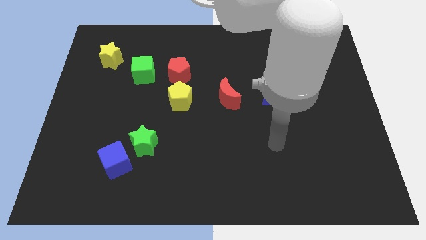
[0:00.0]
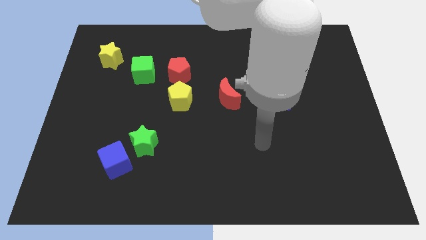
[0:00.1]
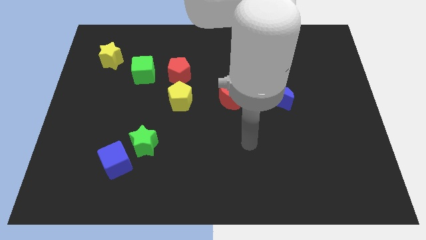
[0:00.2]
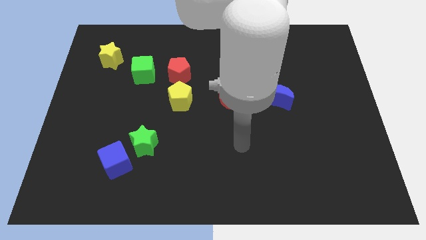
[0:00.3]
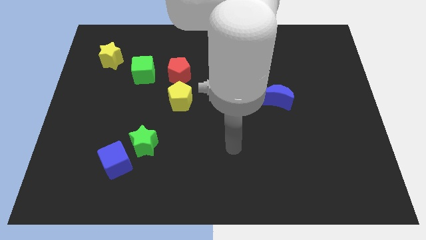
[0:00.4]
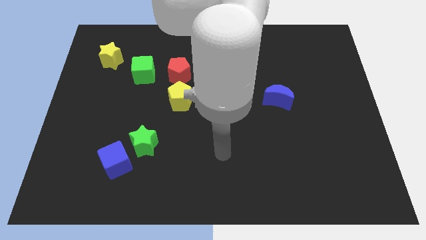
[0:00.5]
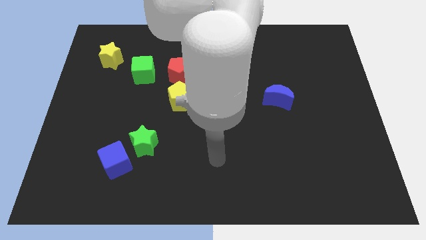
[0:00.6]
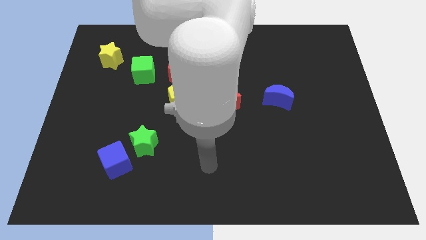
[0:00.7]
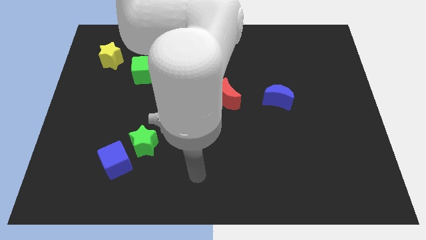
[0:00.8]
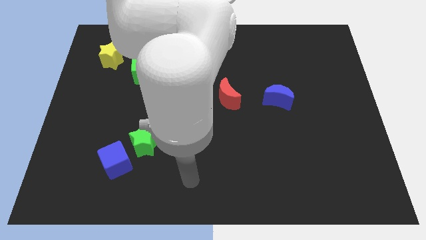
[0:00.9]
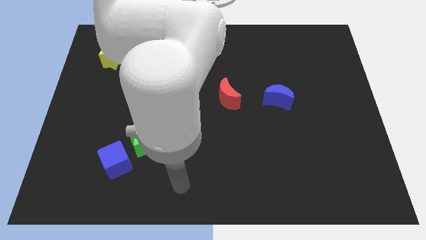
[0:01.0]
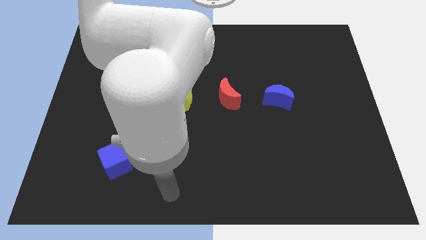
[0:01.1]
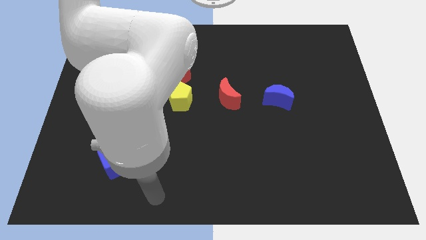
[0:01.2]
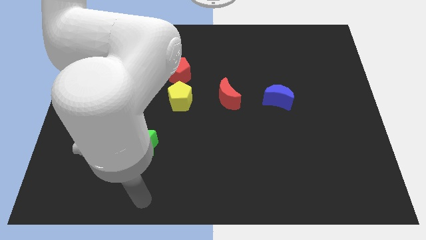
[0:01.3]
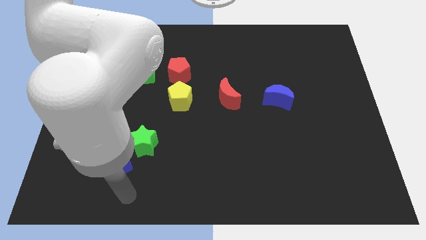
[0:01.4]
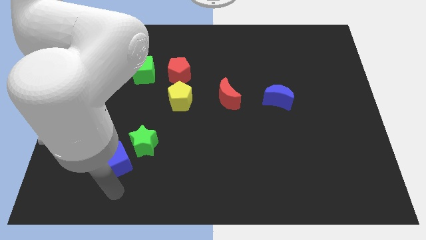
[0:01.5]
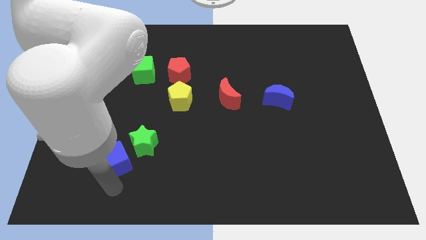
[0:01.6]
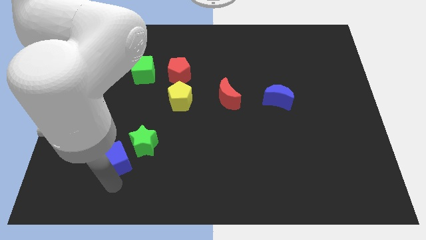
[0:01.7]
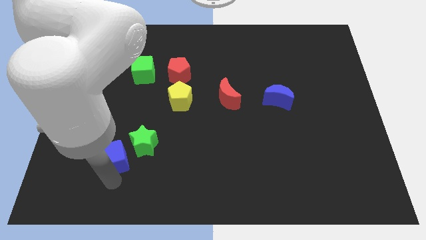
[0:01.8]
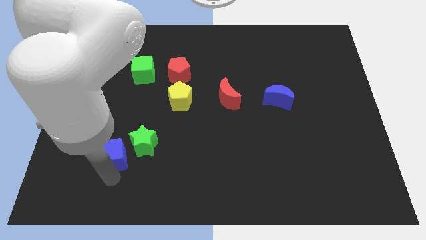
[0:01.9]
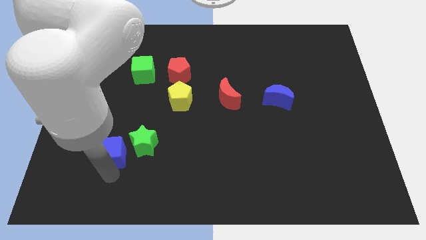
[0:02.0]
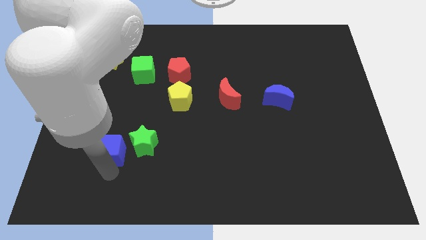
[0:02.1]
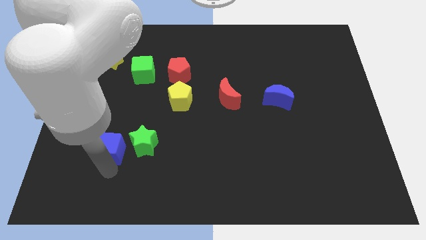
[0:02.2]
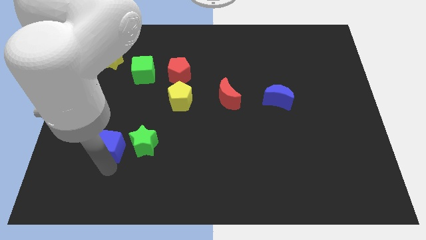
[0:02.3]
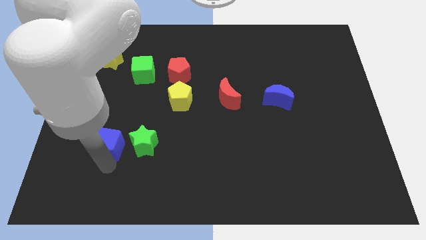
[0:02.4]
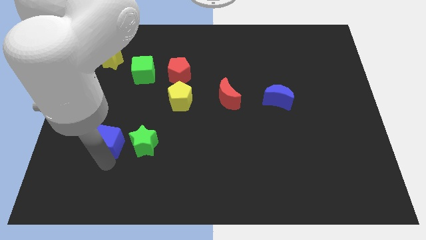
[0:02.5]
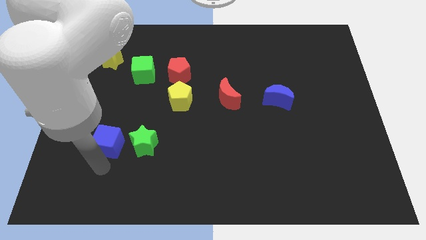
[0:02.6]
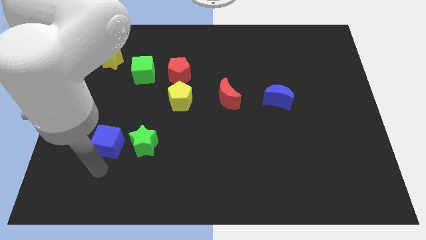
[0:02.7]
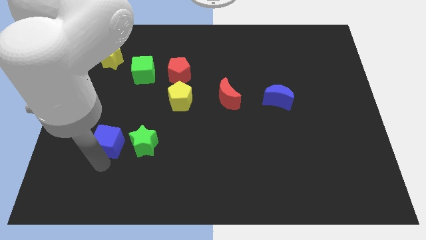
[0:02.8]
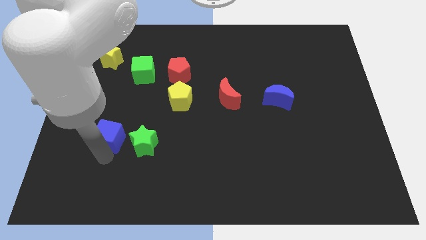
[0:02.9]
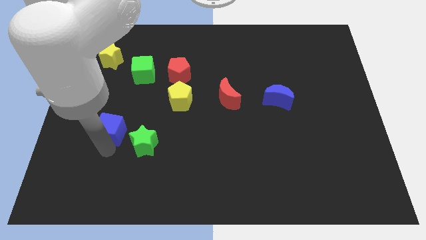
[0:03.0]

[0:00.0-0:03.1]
slightly slide the blue cube upwards

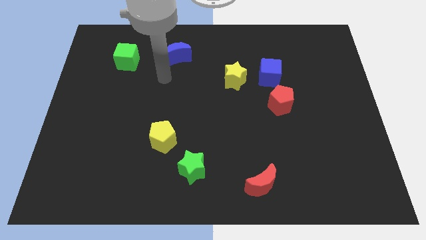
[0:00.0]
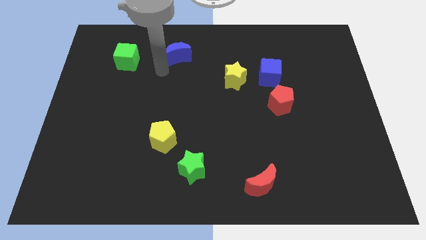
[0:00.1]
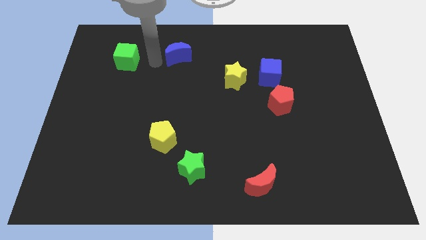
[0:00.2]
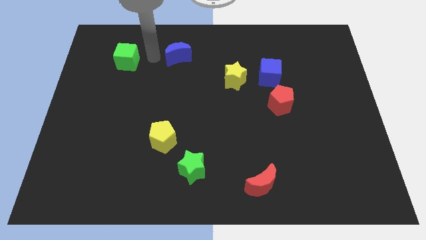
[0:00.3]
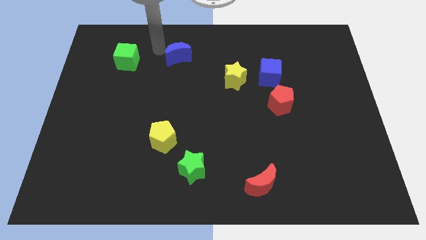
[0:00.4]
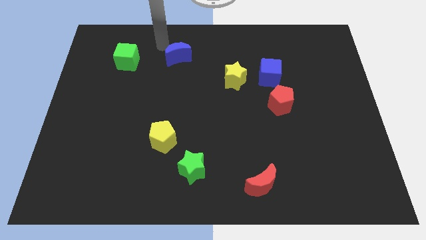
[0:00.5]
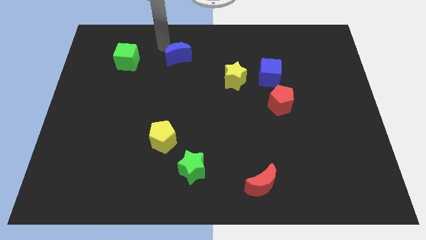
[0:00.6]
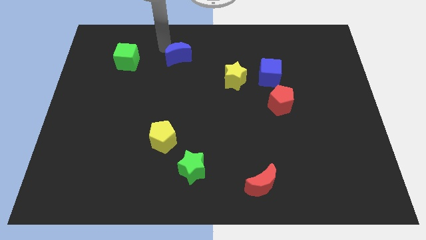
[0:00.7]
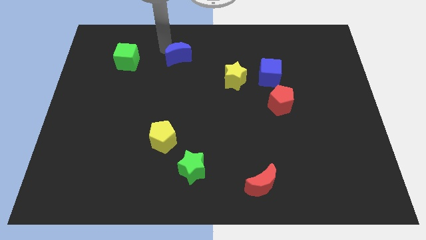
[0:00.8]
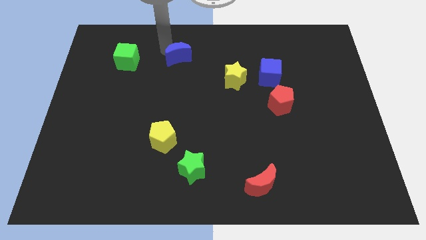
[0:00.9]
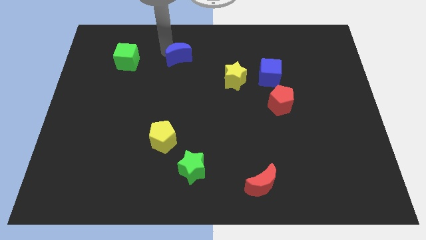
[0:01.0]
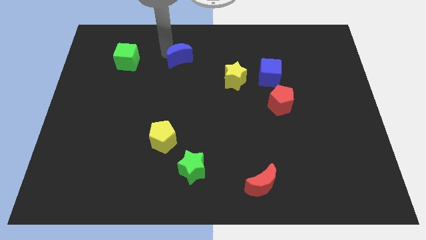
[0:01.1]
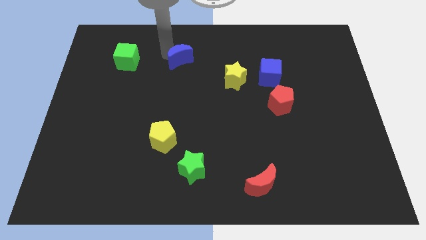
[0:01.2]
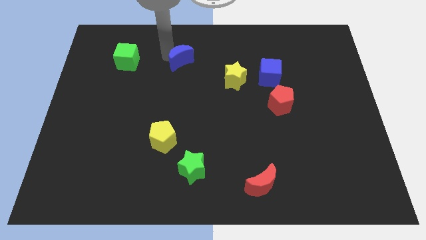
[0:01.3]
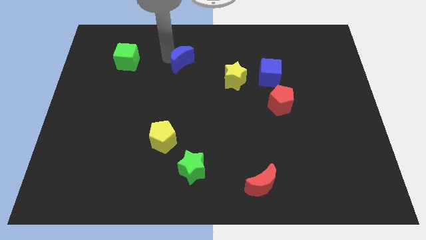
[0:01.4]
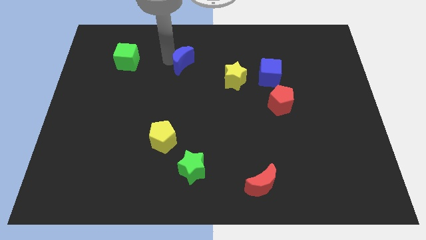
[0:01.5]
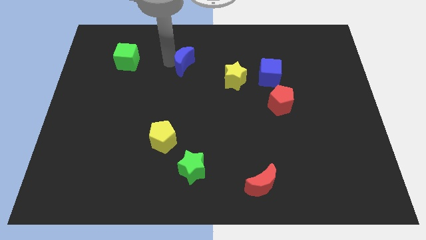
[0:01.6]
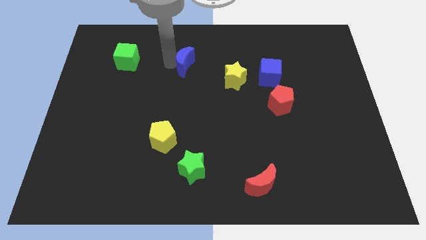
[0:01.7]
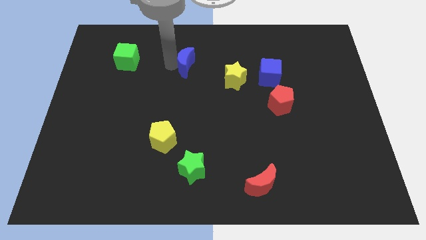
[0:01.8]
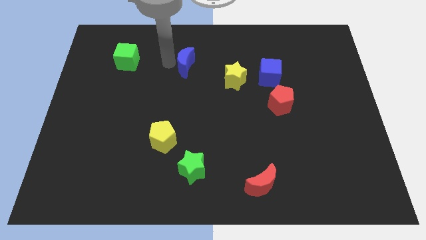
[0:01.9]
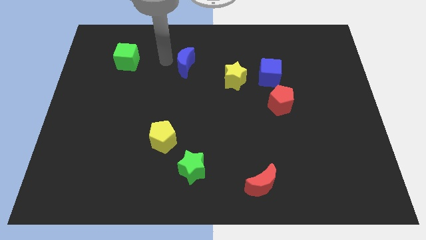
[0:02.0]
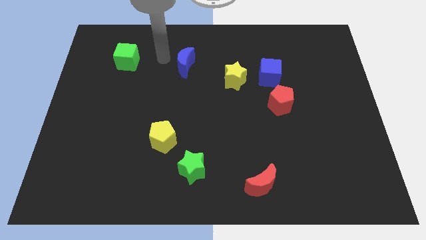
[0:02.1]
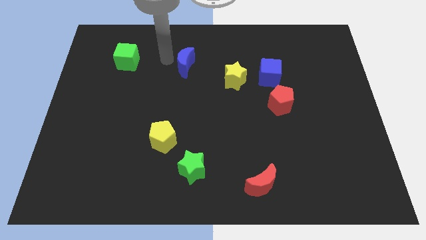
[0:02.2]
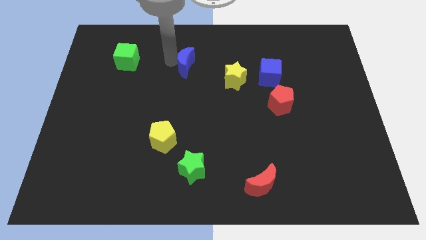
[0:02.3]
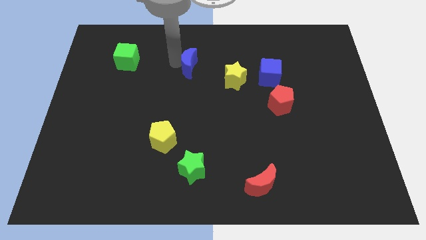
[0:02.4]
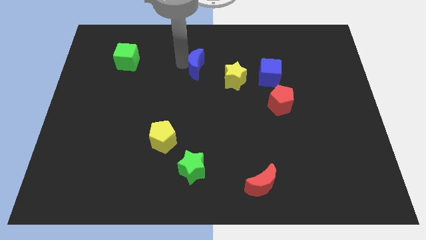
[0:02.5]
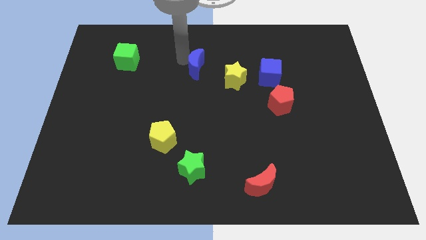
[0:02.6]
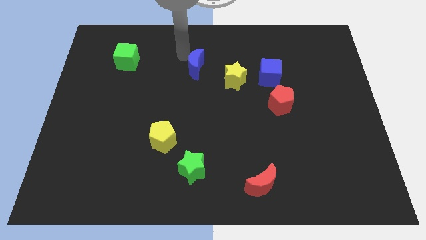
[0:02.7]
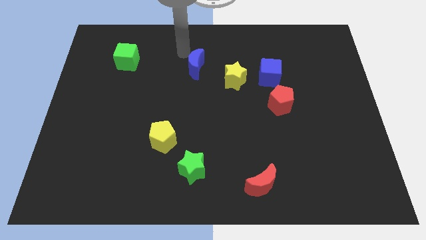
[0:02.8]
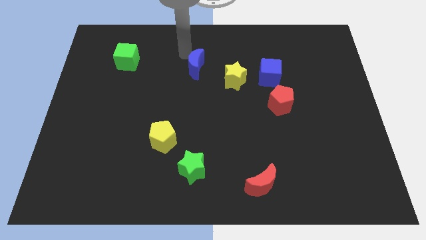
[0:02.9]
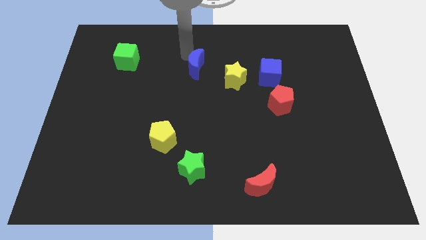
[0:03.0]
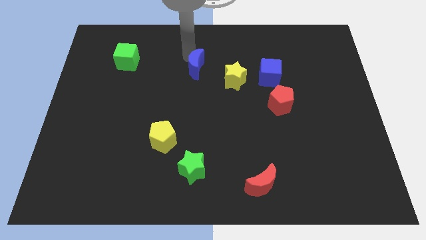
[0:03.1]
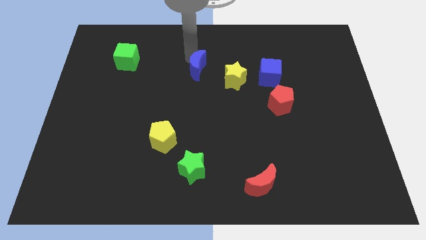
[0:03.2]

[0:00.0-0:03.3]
push the blue moon slightly down and right

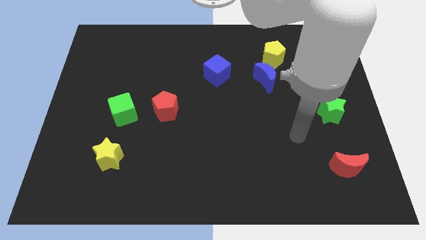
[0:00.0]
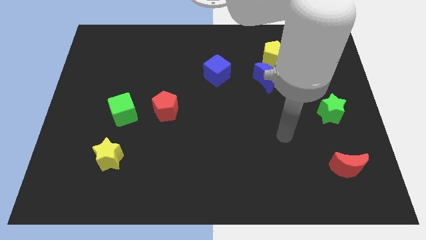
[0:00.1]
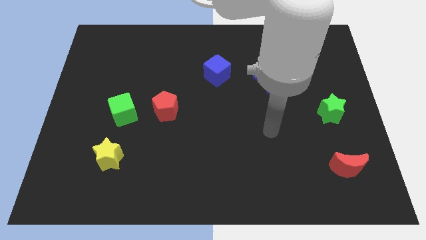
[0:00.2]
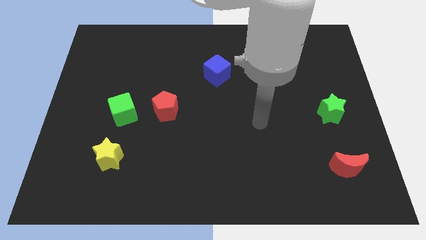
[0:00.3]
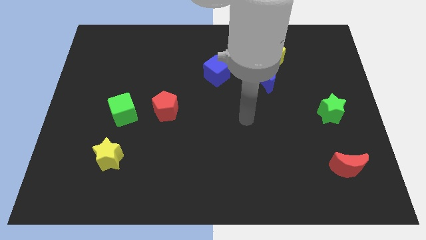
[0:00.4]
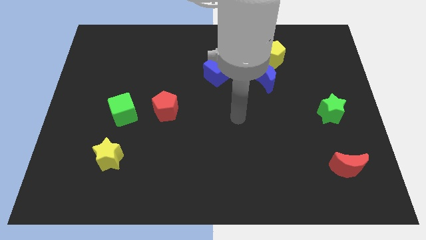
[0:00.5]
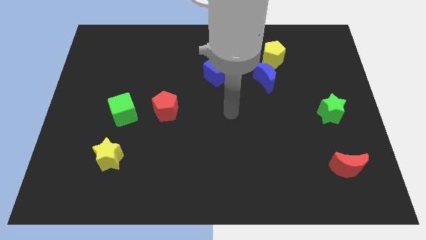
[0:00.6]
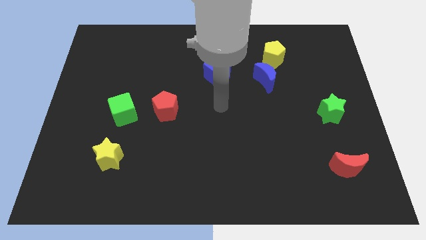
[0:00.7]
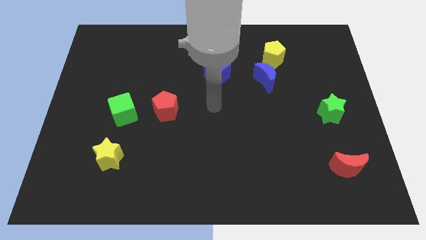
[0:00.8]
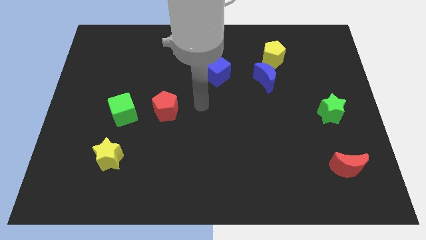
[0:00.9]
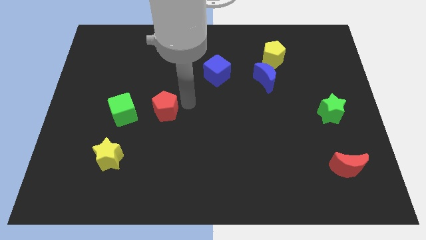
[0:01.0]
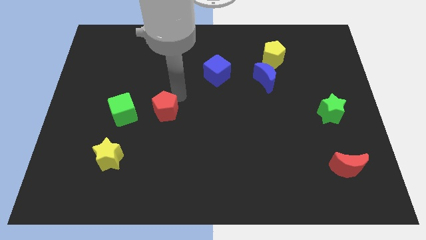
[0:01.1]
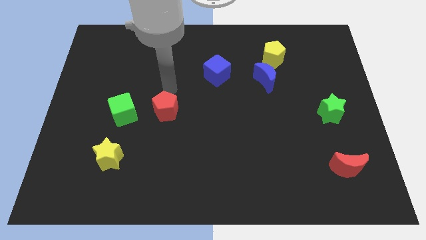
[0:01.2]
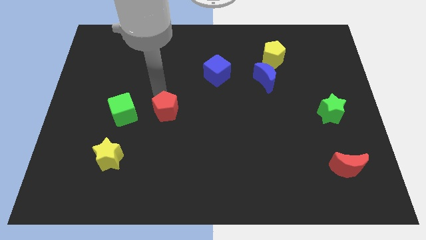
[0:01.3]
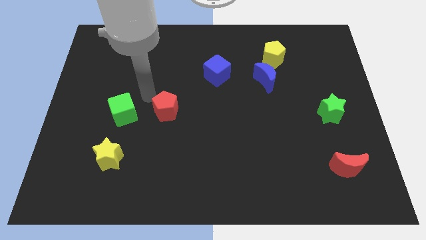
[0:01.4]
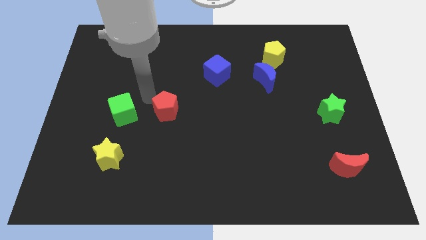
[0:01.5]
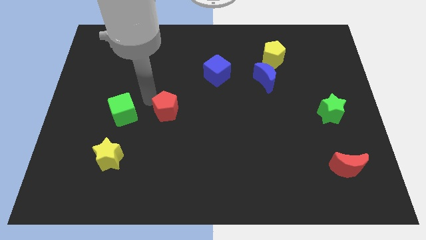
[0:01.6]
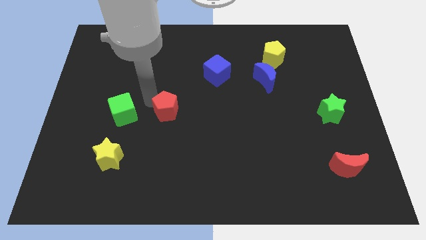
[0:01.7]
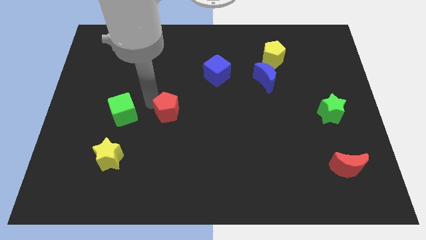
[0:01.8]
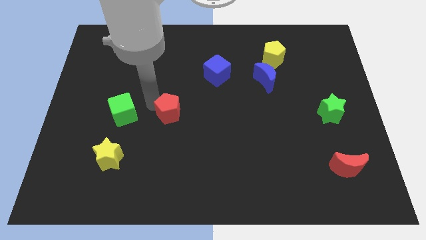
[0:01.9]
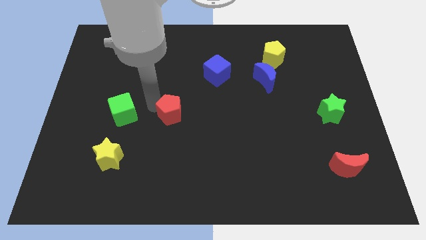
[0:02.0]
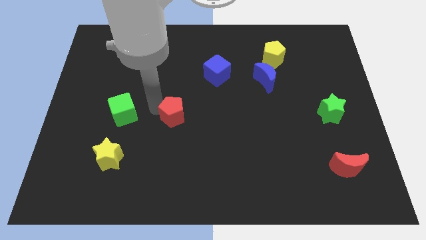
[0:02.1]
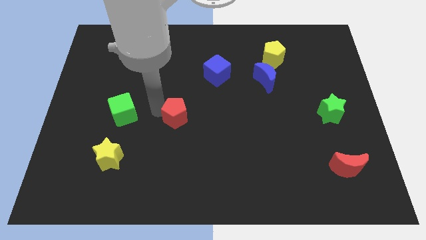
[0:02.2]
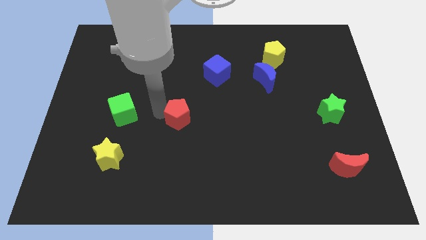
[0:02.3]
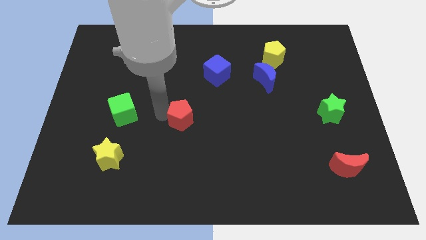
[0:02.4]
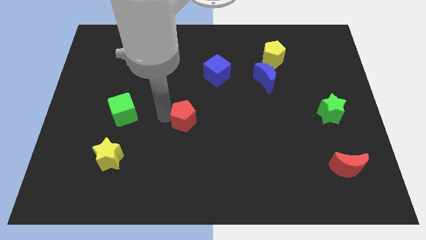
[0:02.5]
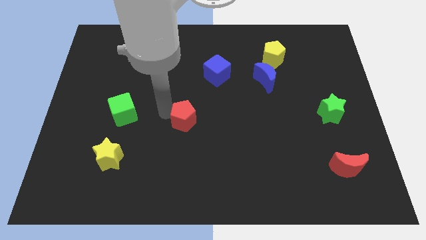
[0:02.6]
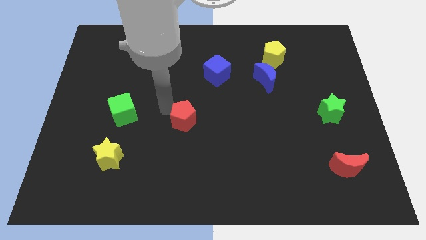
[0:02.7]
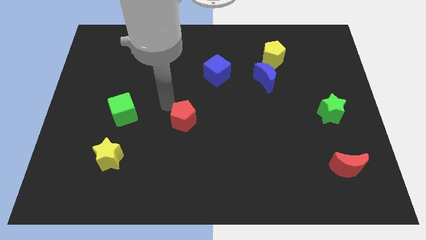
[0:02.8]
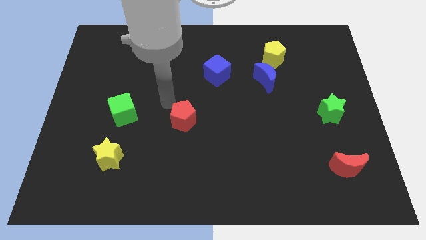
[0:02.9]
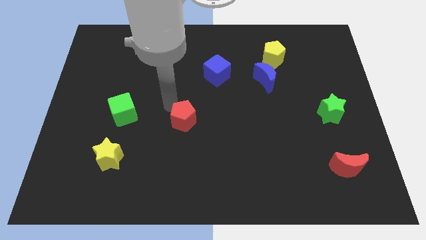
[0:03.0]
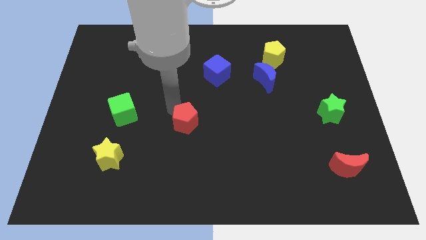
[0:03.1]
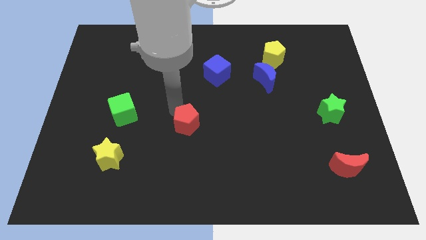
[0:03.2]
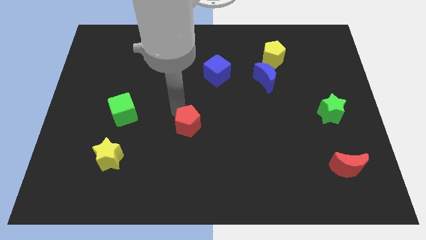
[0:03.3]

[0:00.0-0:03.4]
push the red pentagon down and then right a bit
